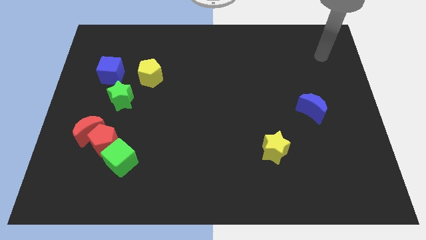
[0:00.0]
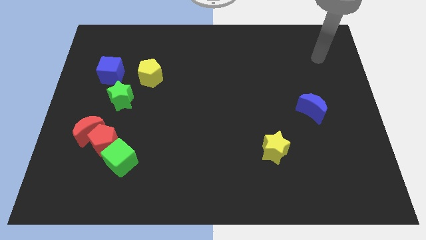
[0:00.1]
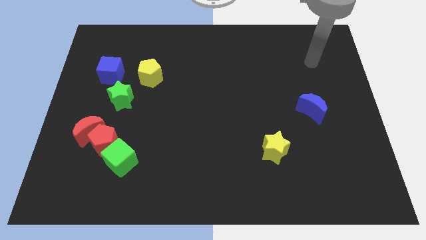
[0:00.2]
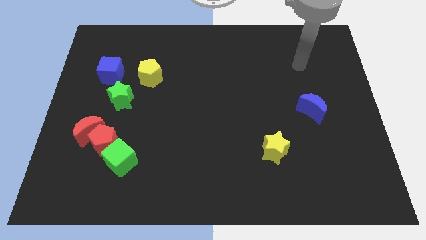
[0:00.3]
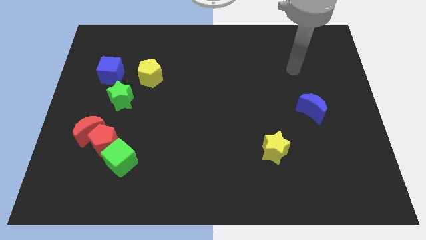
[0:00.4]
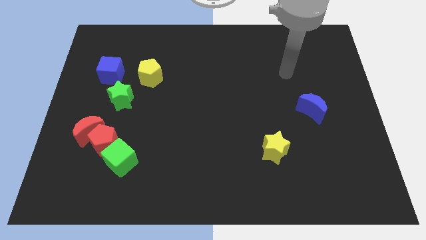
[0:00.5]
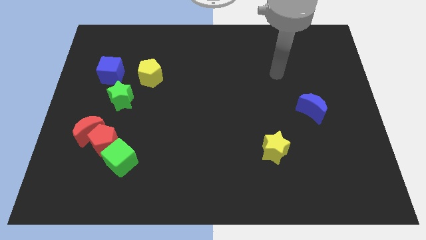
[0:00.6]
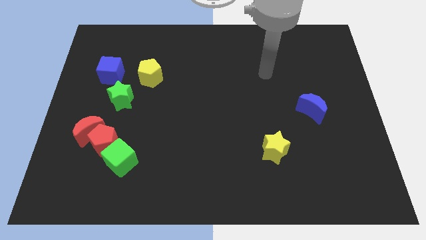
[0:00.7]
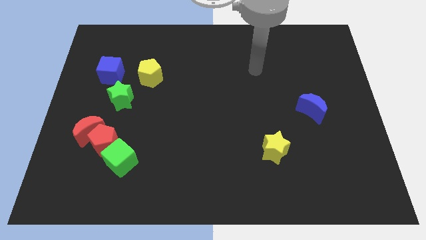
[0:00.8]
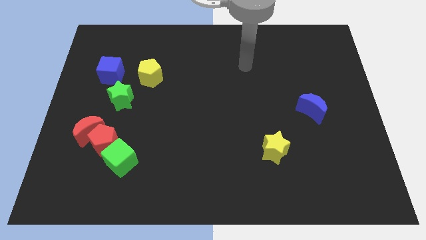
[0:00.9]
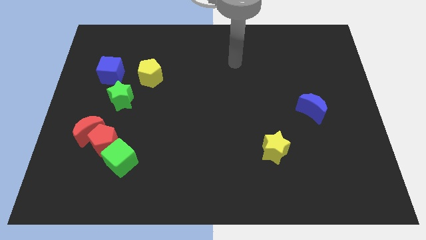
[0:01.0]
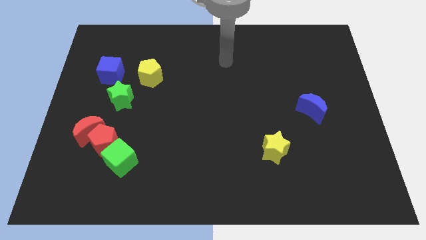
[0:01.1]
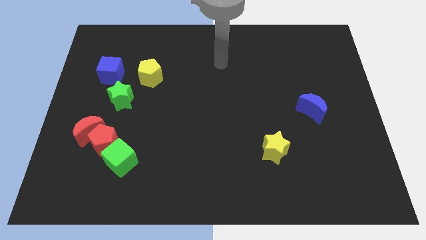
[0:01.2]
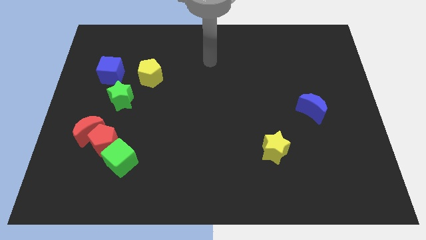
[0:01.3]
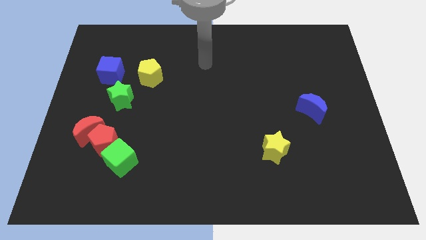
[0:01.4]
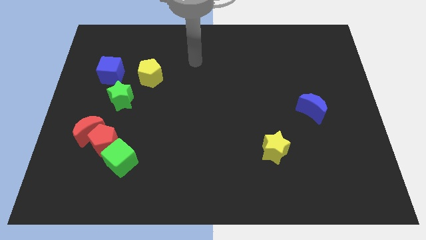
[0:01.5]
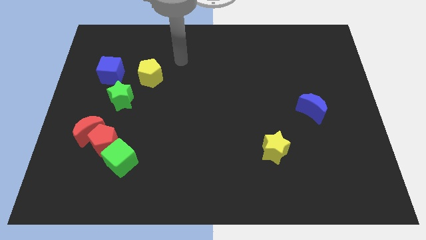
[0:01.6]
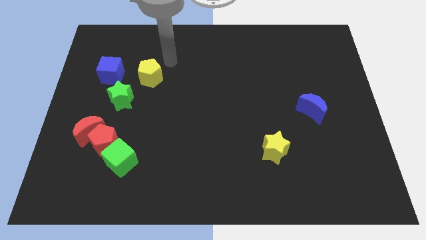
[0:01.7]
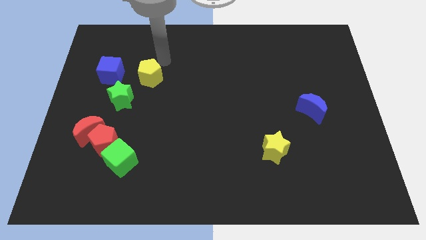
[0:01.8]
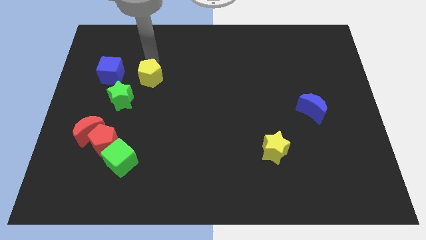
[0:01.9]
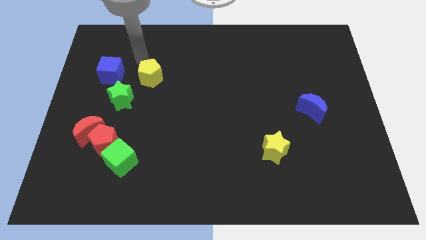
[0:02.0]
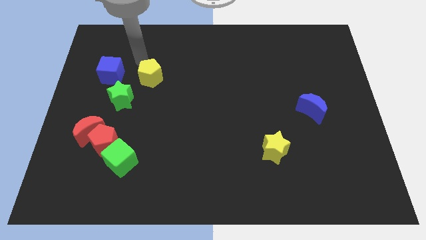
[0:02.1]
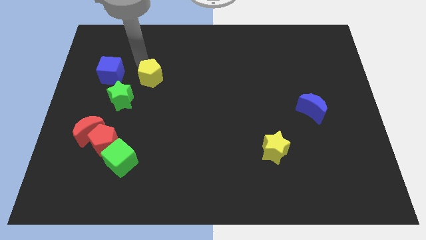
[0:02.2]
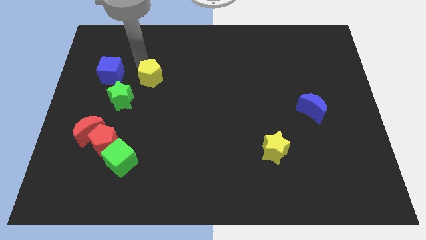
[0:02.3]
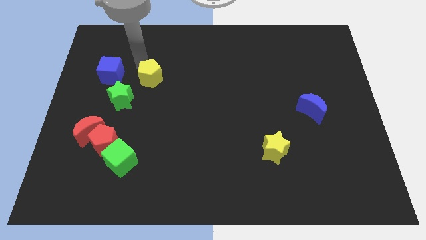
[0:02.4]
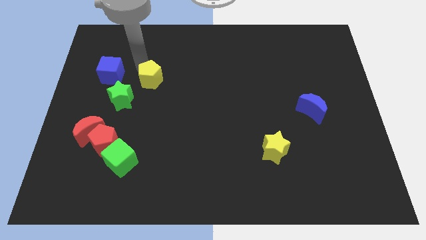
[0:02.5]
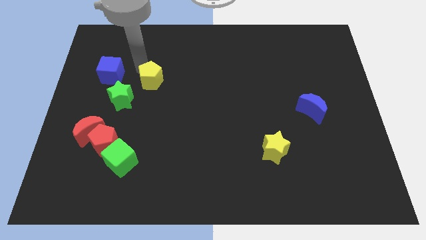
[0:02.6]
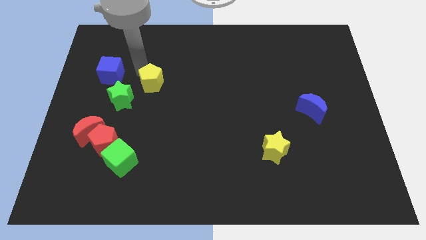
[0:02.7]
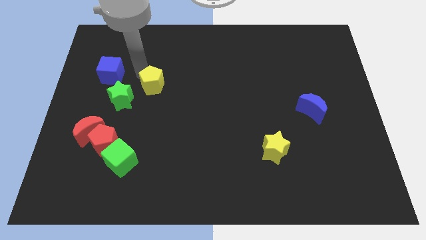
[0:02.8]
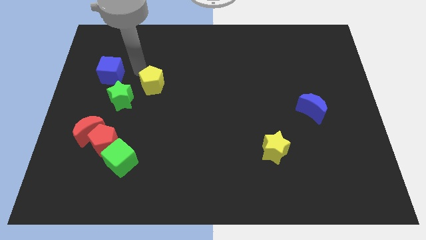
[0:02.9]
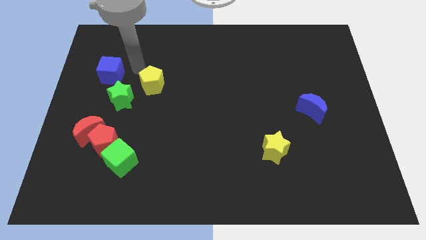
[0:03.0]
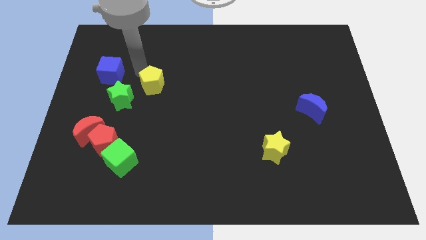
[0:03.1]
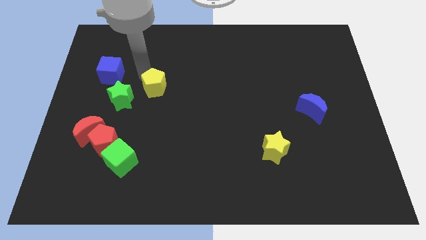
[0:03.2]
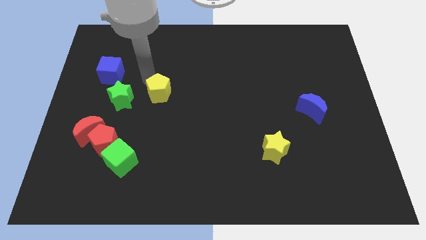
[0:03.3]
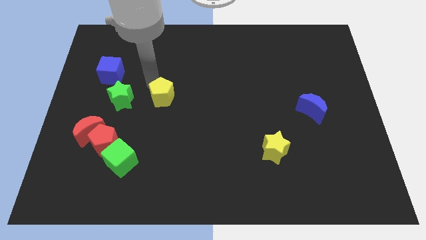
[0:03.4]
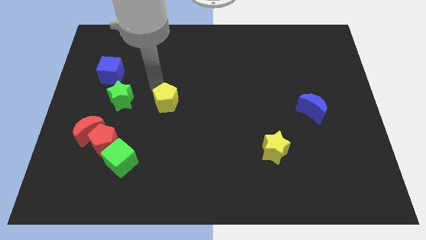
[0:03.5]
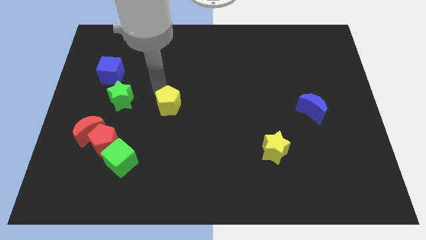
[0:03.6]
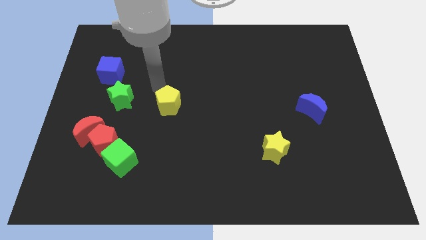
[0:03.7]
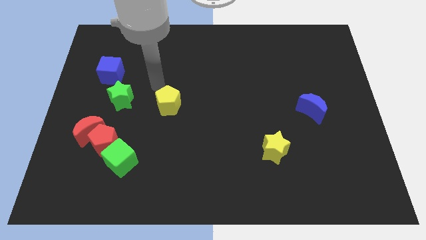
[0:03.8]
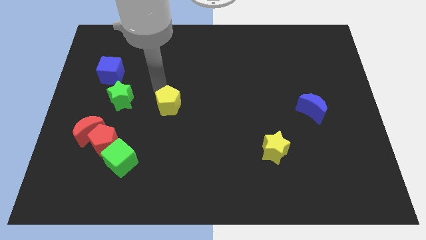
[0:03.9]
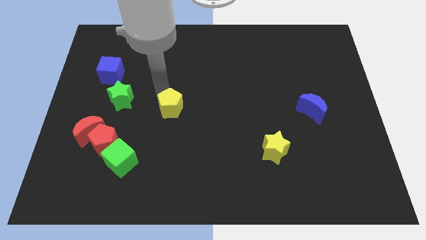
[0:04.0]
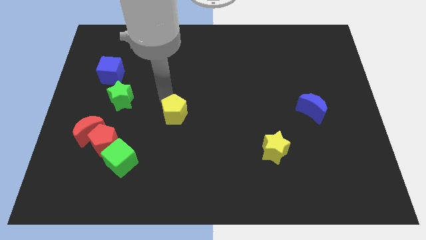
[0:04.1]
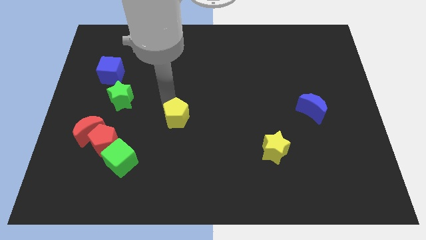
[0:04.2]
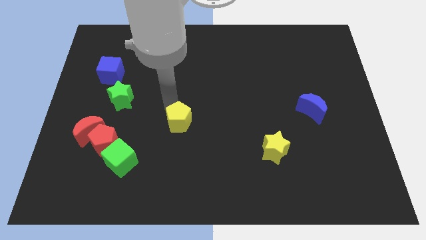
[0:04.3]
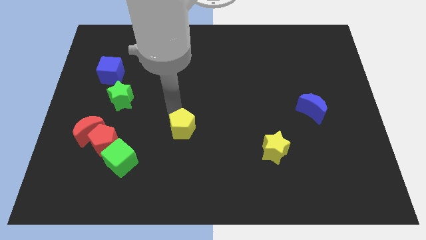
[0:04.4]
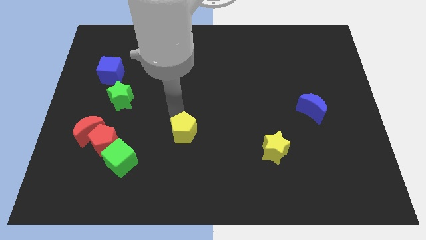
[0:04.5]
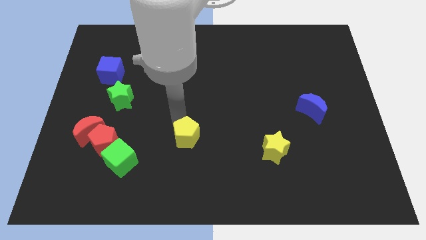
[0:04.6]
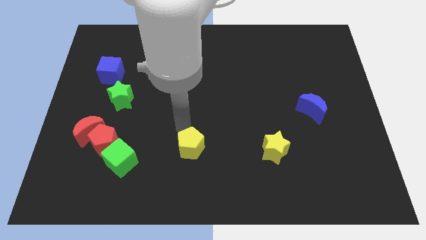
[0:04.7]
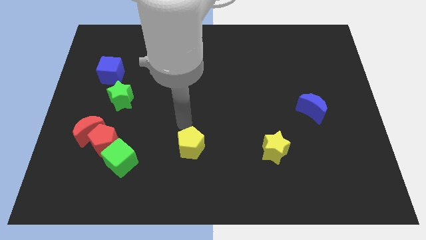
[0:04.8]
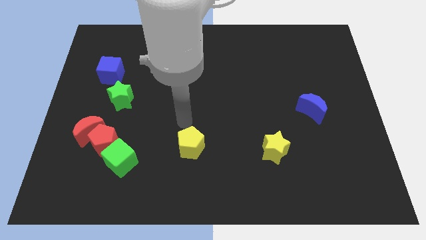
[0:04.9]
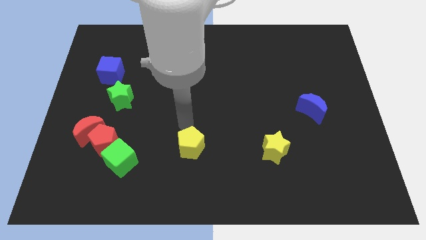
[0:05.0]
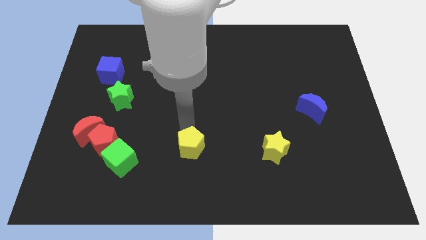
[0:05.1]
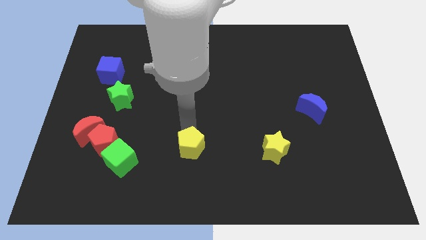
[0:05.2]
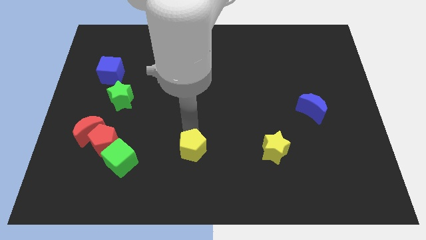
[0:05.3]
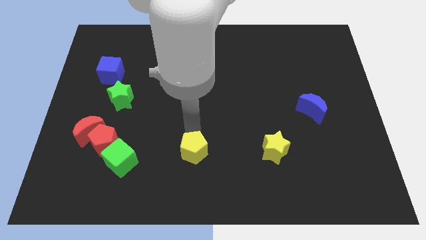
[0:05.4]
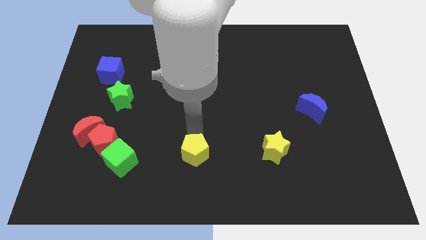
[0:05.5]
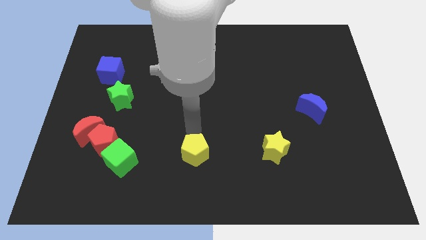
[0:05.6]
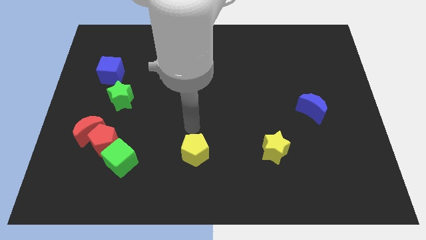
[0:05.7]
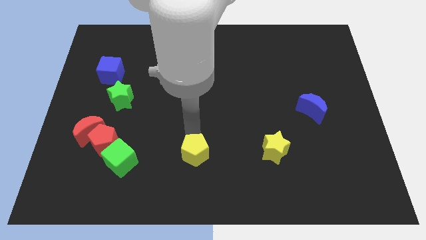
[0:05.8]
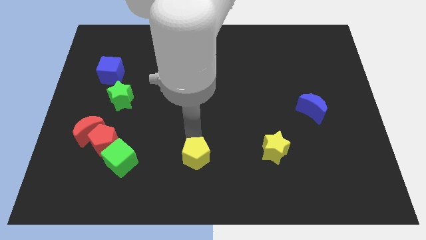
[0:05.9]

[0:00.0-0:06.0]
move the yellow pentagon to the bottom side
